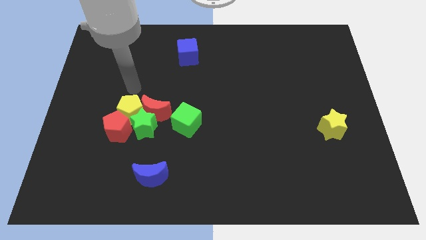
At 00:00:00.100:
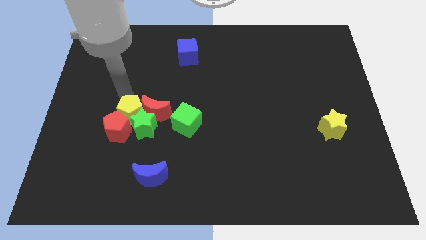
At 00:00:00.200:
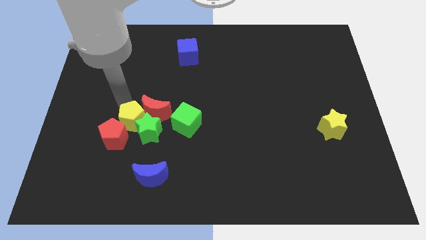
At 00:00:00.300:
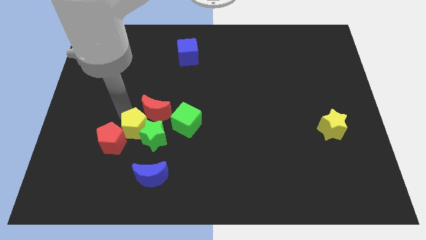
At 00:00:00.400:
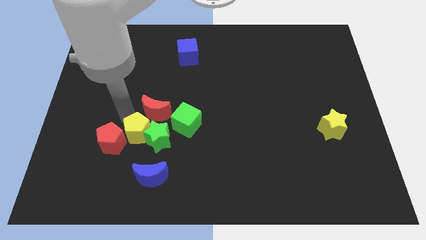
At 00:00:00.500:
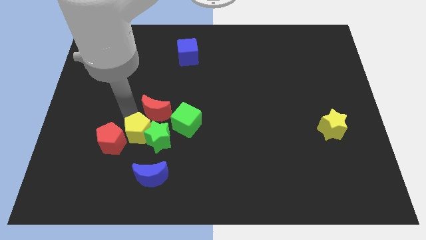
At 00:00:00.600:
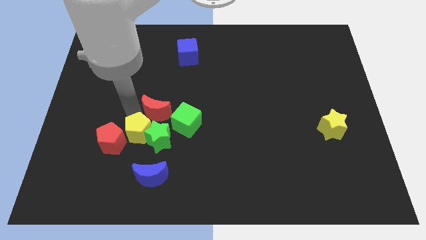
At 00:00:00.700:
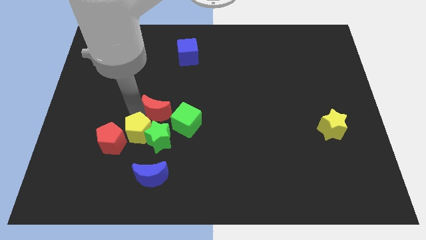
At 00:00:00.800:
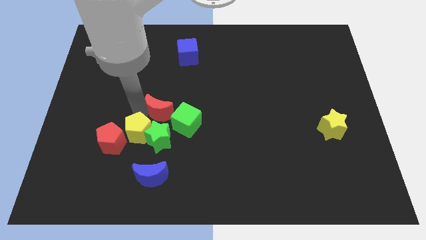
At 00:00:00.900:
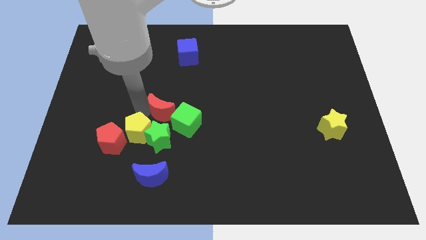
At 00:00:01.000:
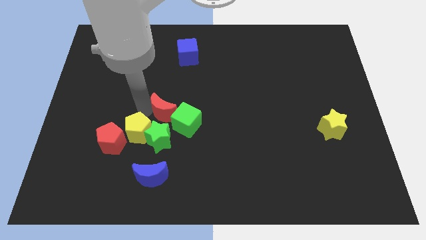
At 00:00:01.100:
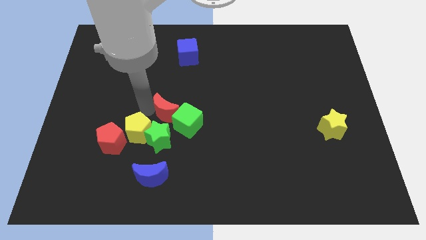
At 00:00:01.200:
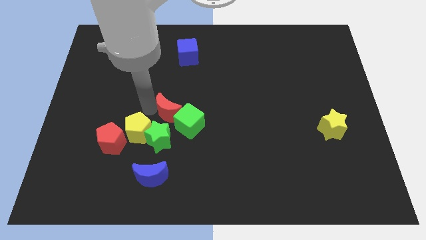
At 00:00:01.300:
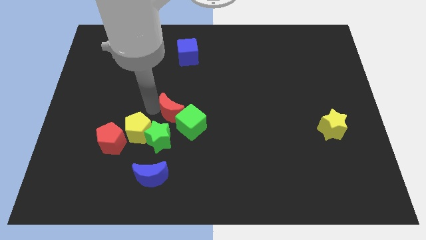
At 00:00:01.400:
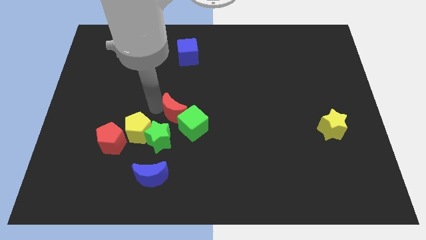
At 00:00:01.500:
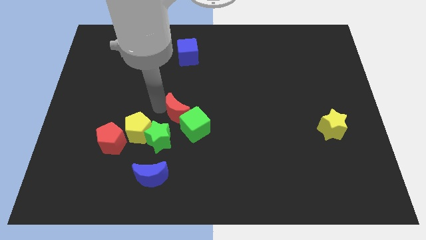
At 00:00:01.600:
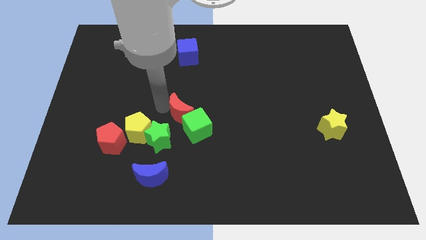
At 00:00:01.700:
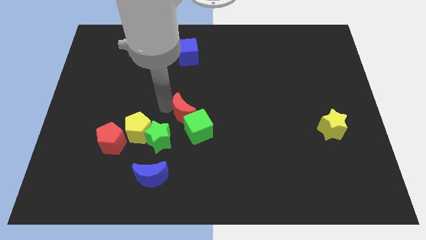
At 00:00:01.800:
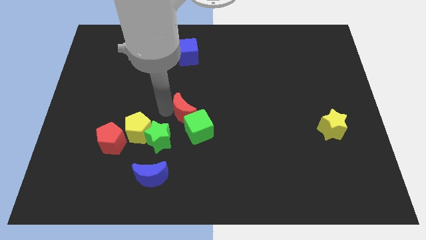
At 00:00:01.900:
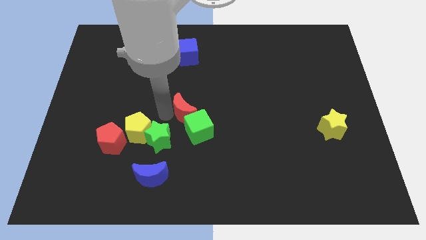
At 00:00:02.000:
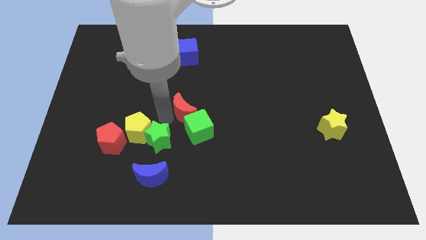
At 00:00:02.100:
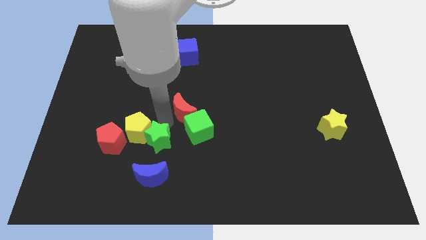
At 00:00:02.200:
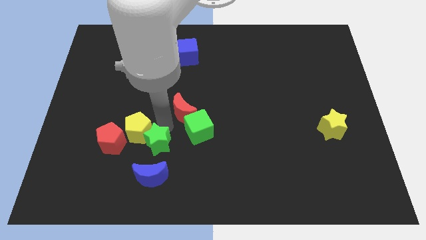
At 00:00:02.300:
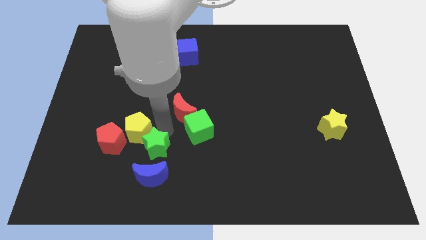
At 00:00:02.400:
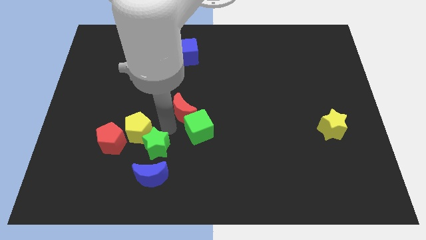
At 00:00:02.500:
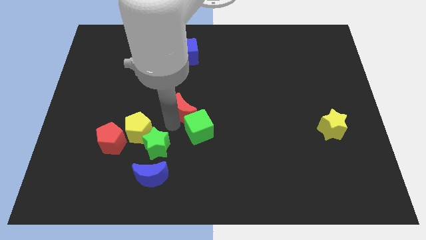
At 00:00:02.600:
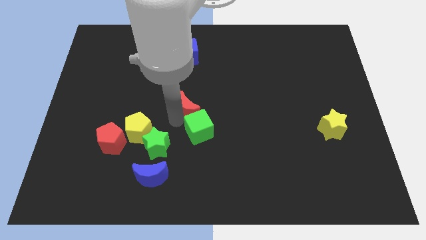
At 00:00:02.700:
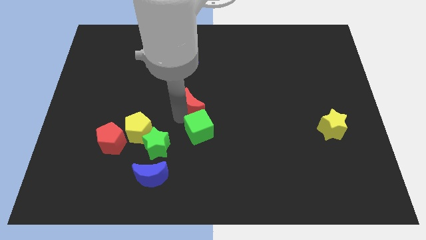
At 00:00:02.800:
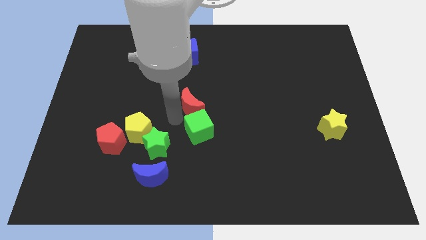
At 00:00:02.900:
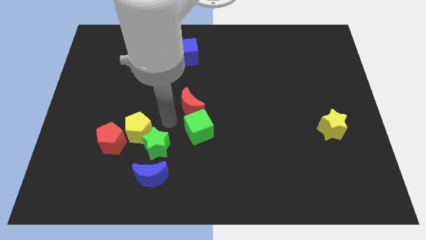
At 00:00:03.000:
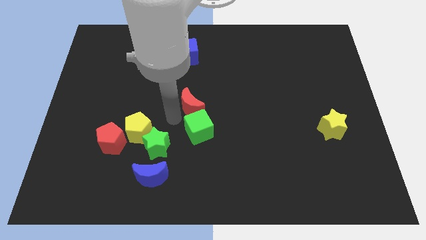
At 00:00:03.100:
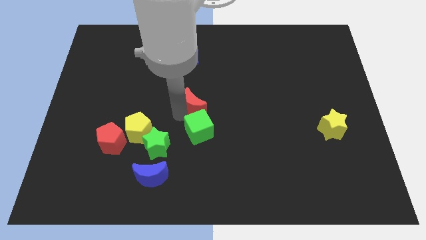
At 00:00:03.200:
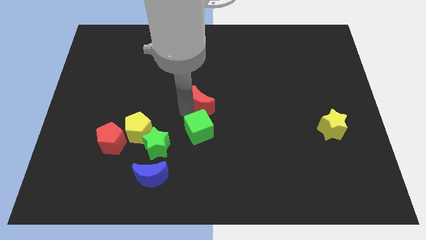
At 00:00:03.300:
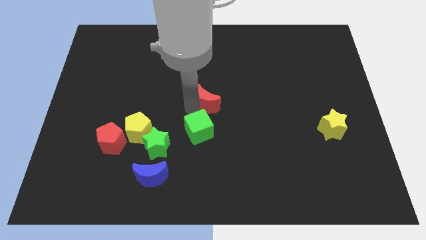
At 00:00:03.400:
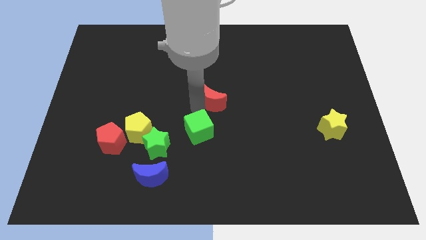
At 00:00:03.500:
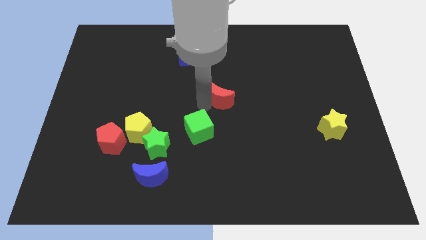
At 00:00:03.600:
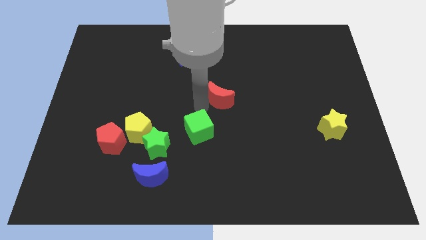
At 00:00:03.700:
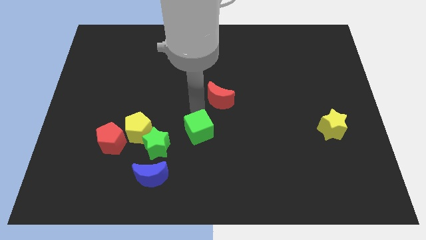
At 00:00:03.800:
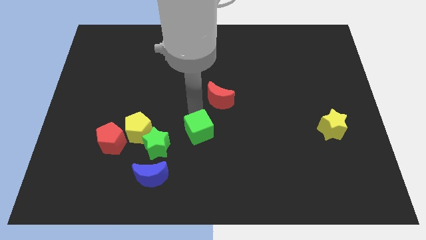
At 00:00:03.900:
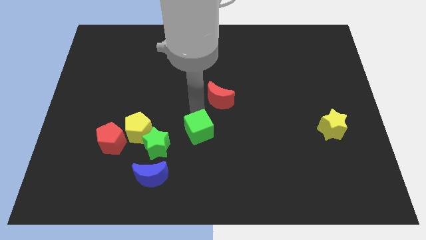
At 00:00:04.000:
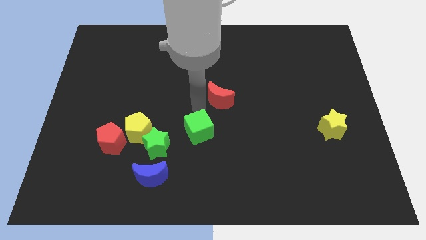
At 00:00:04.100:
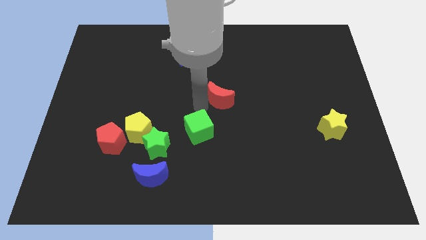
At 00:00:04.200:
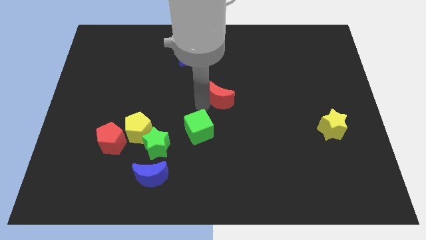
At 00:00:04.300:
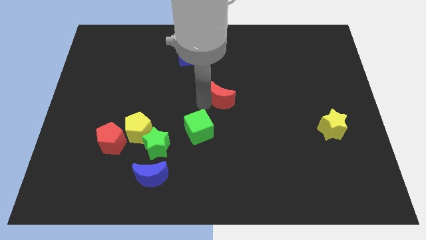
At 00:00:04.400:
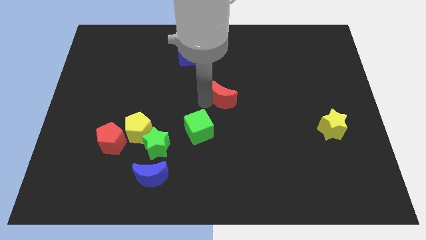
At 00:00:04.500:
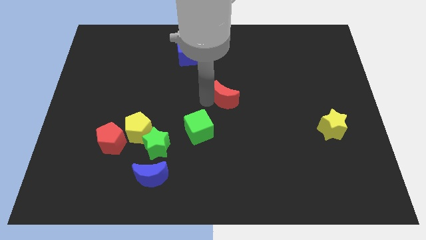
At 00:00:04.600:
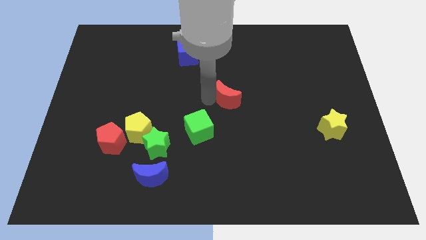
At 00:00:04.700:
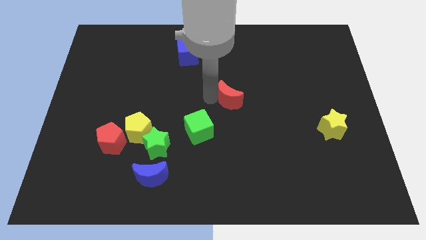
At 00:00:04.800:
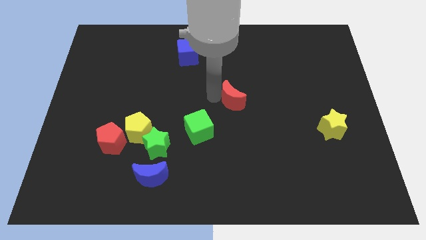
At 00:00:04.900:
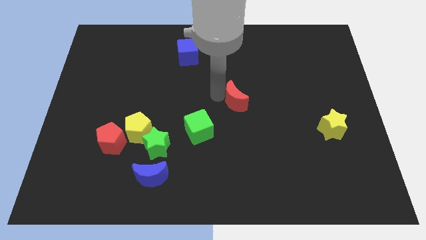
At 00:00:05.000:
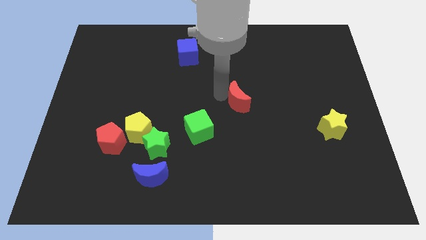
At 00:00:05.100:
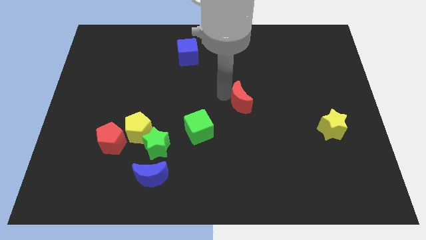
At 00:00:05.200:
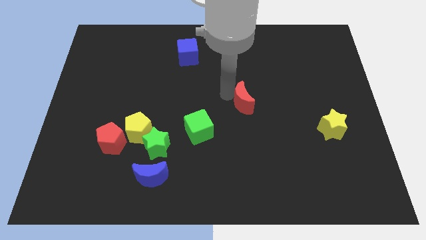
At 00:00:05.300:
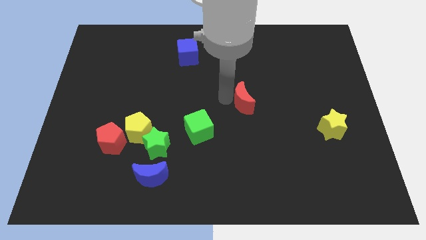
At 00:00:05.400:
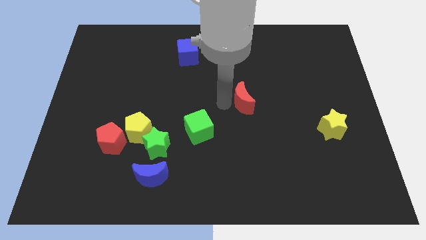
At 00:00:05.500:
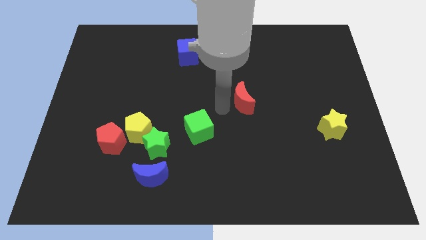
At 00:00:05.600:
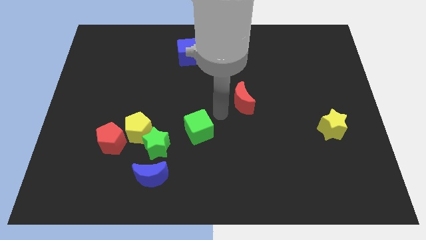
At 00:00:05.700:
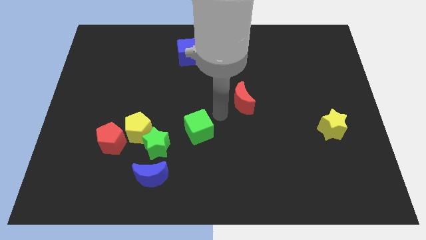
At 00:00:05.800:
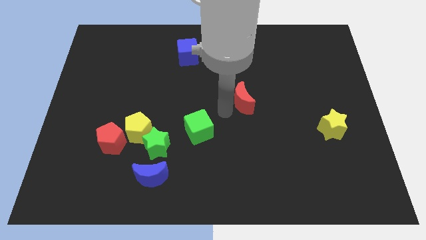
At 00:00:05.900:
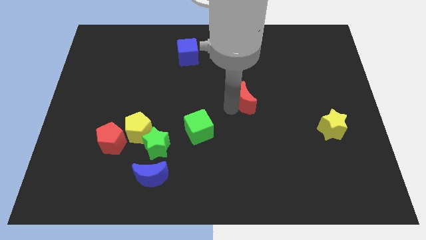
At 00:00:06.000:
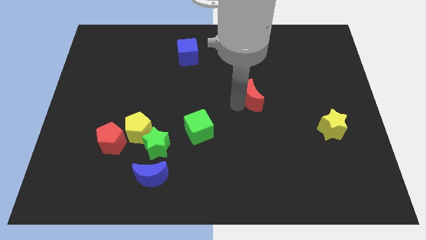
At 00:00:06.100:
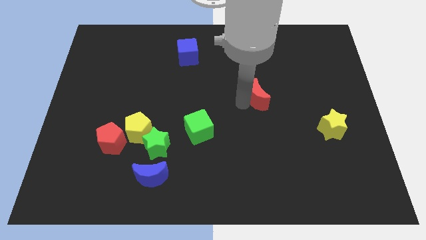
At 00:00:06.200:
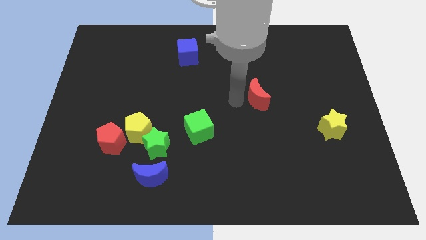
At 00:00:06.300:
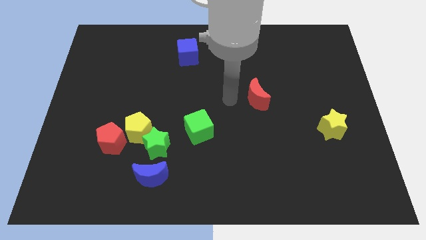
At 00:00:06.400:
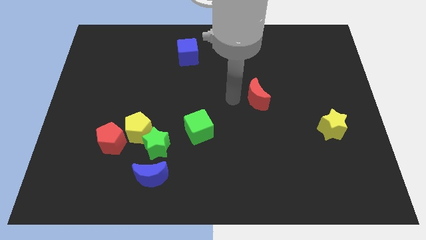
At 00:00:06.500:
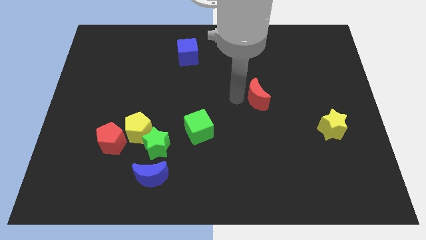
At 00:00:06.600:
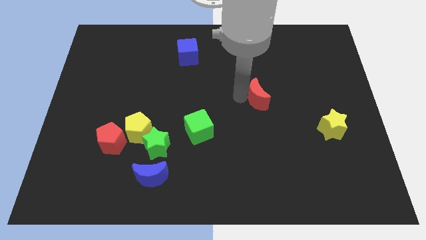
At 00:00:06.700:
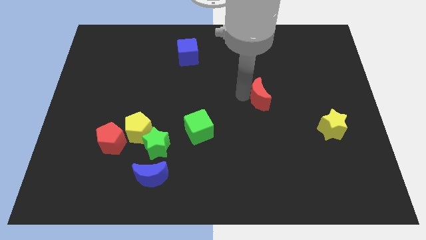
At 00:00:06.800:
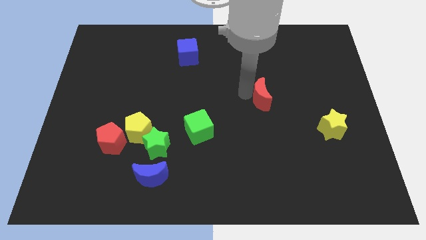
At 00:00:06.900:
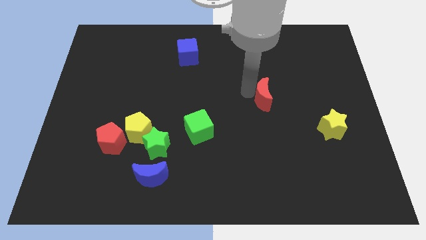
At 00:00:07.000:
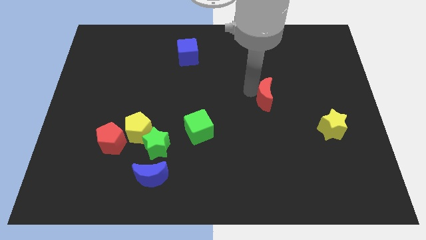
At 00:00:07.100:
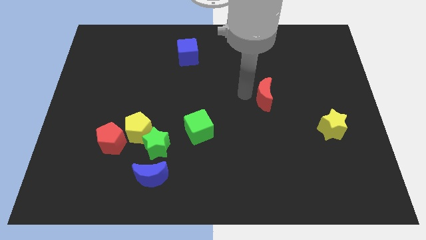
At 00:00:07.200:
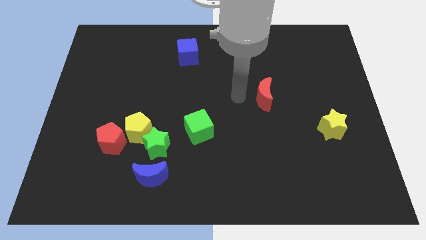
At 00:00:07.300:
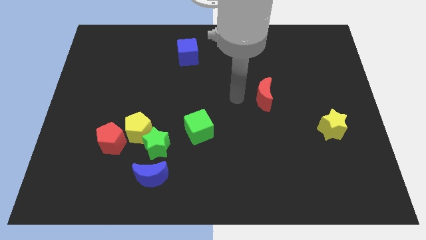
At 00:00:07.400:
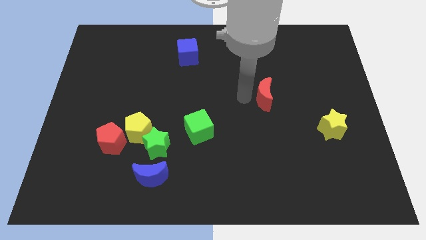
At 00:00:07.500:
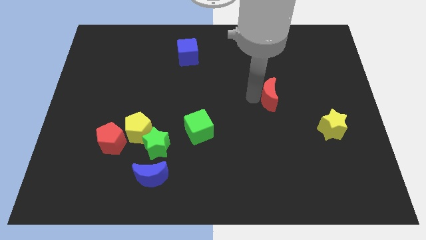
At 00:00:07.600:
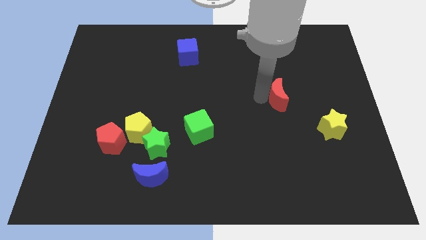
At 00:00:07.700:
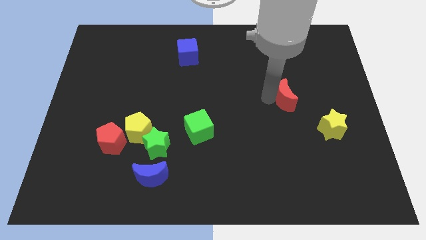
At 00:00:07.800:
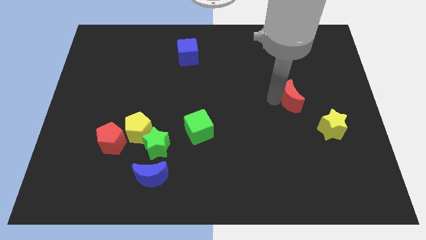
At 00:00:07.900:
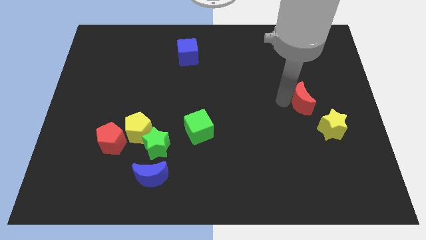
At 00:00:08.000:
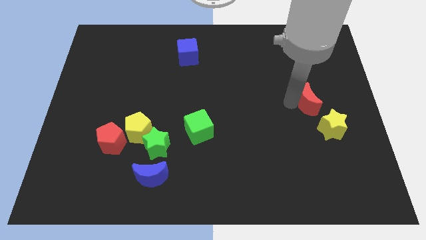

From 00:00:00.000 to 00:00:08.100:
slide the red moon to the top side of the yellow star
